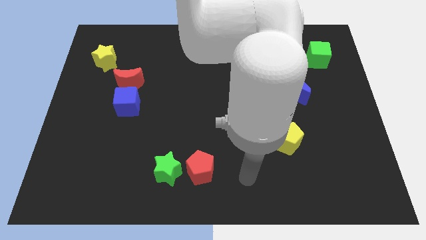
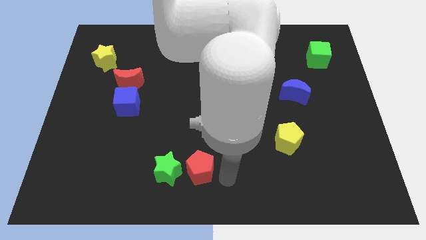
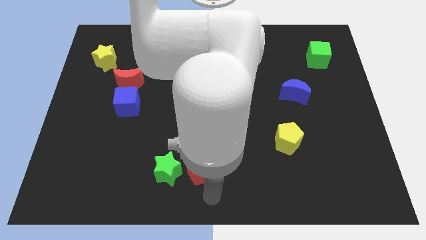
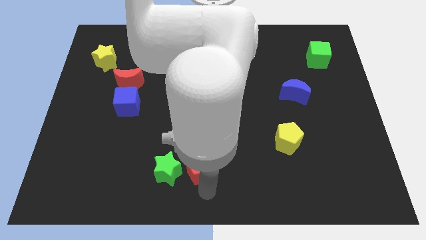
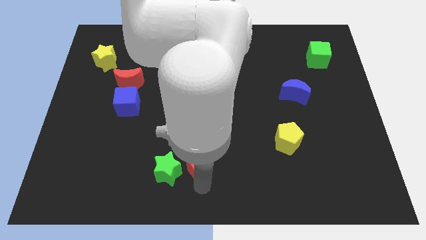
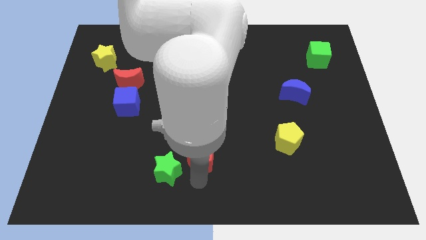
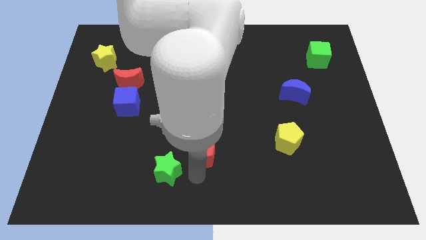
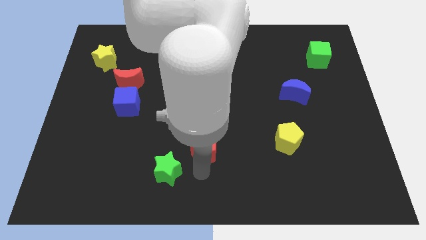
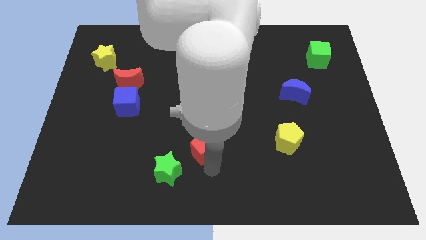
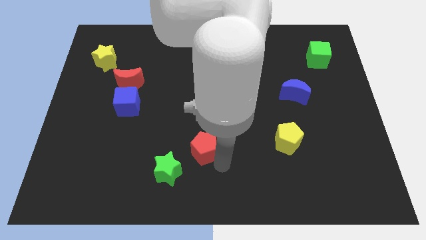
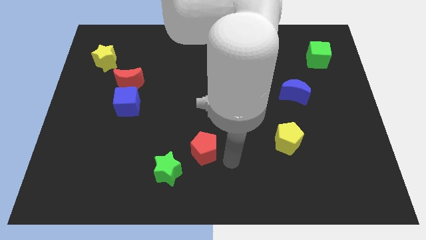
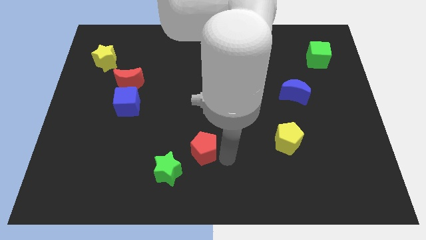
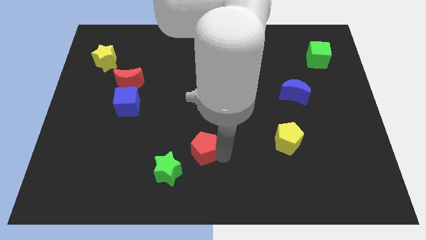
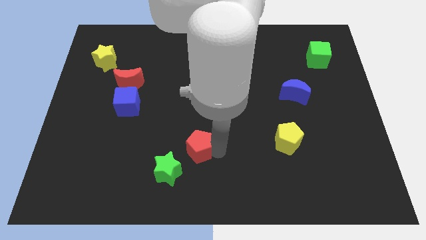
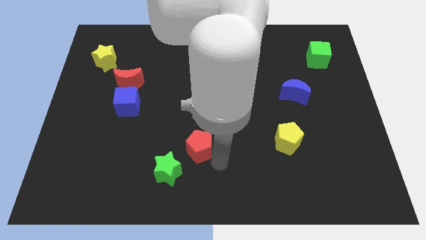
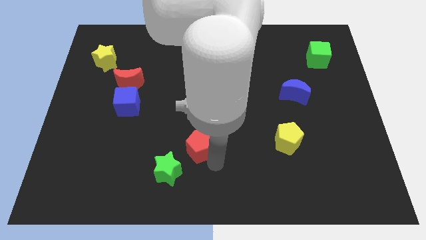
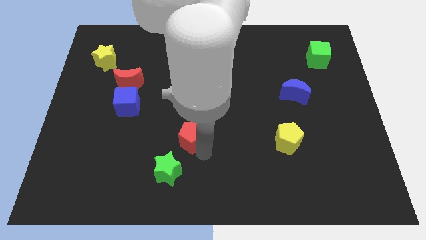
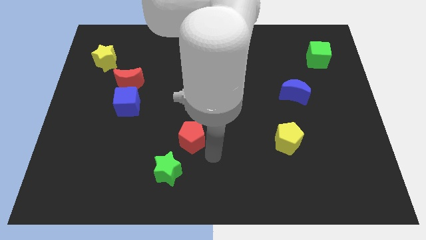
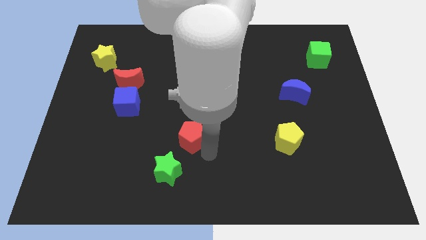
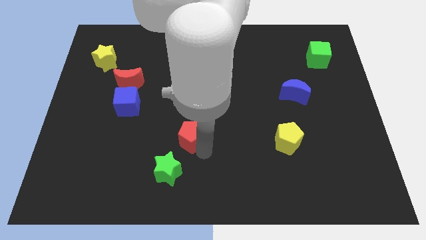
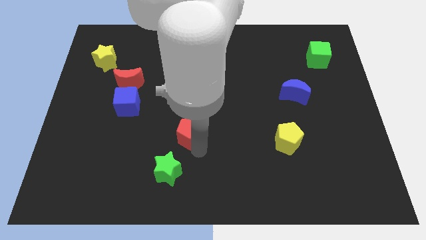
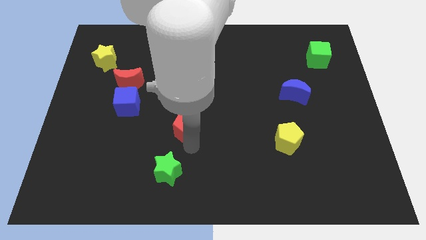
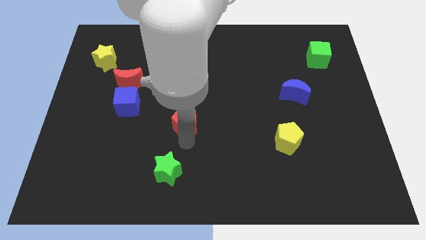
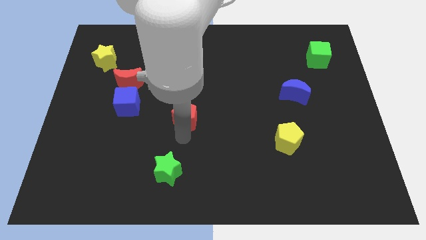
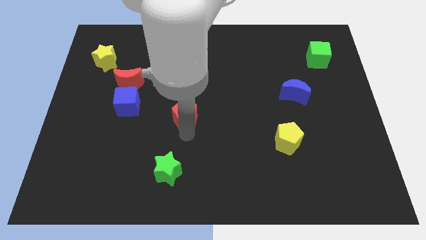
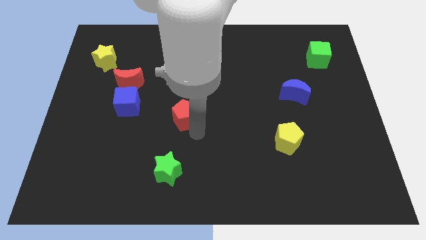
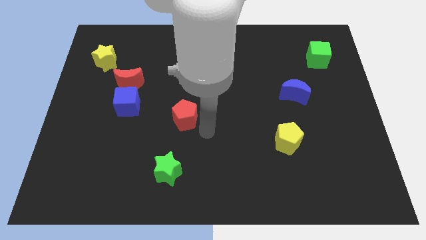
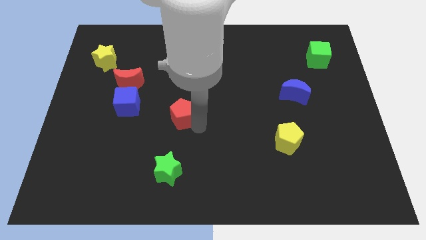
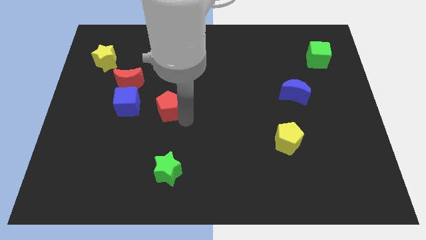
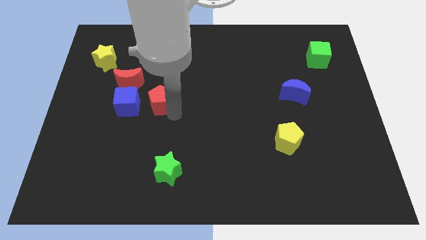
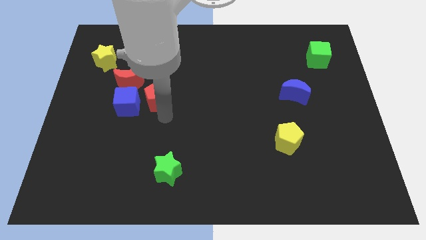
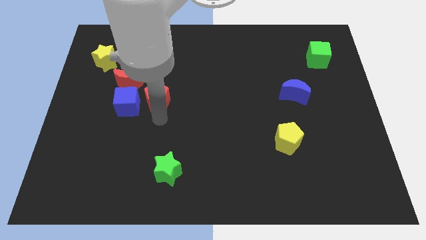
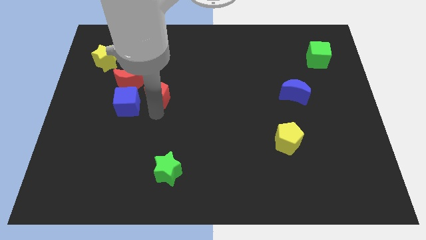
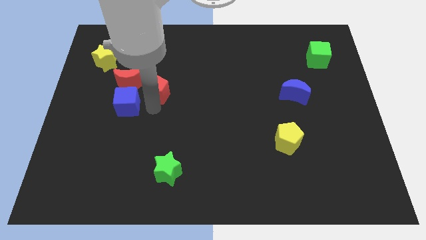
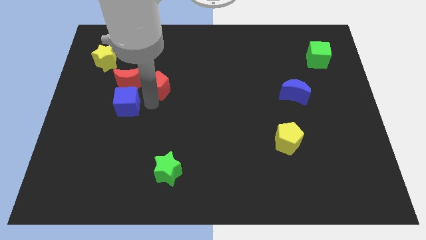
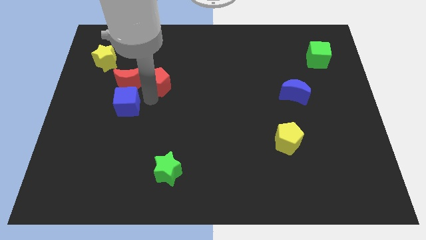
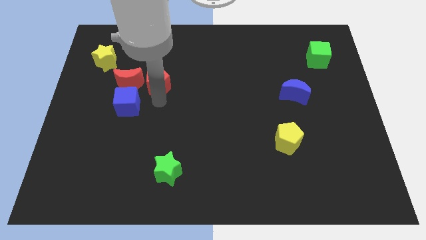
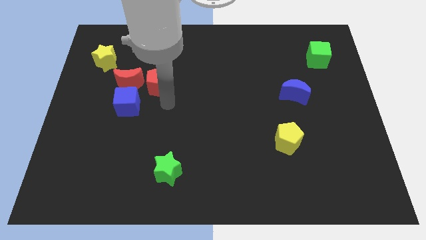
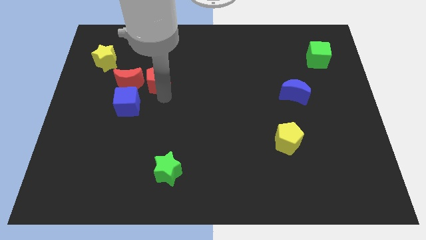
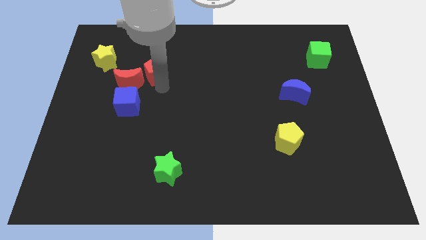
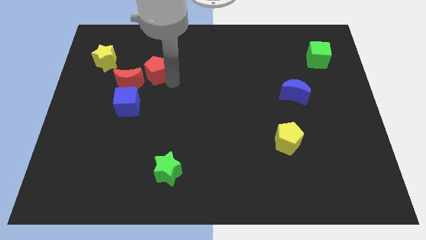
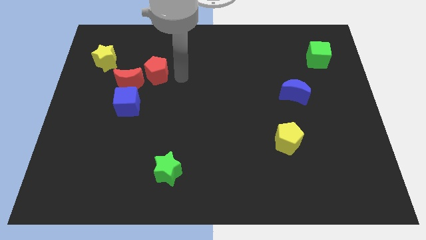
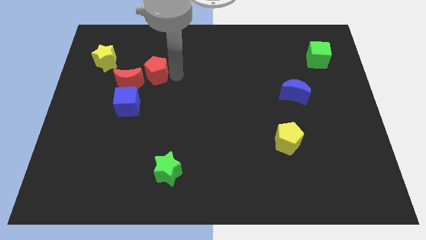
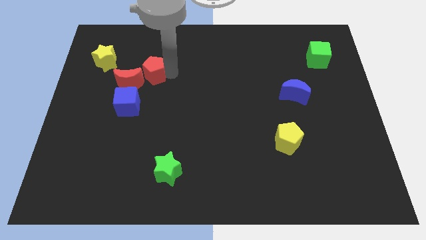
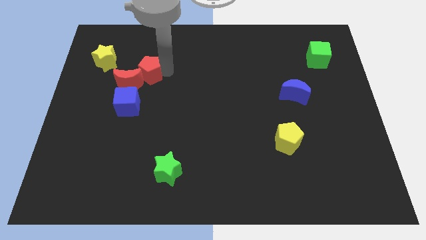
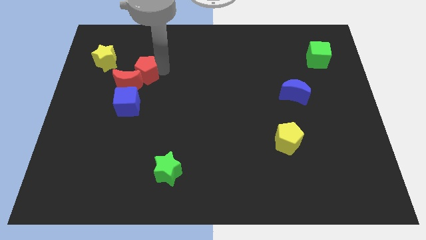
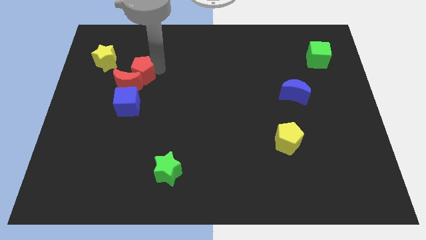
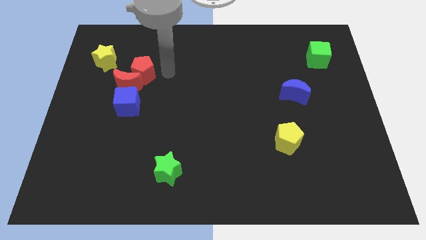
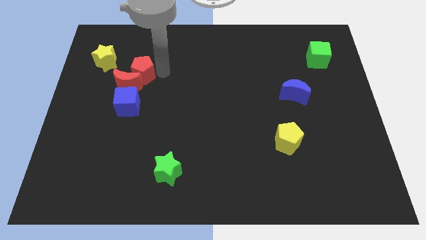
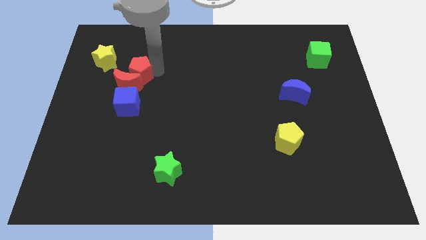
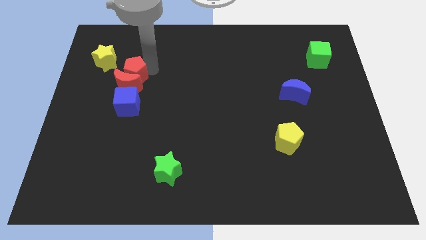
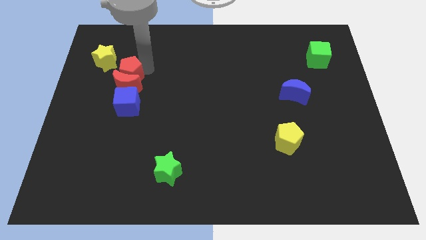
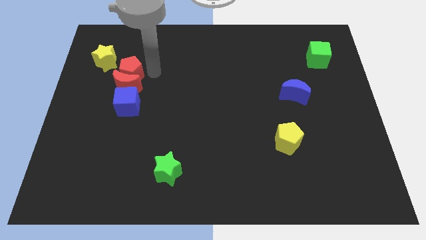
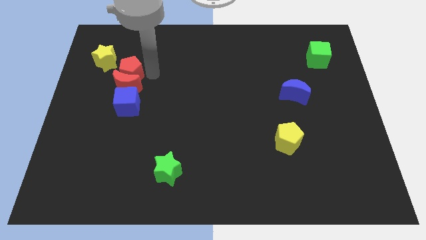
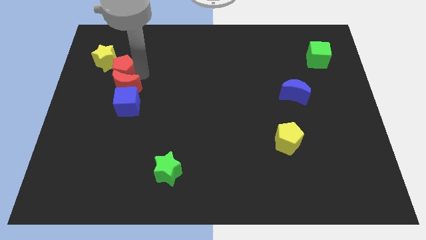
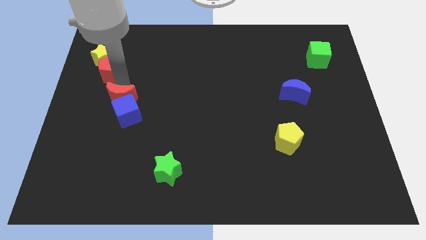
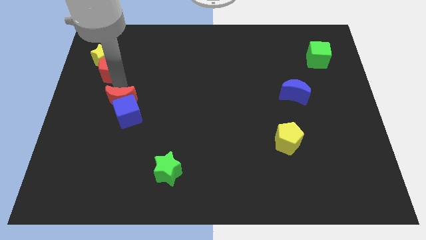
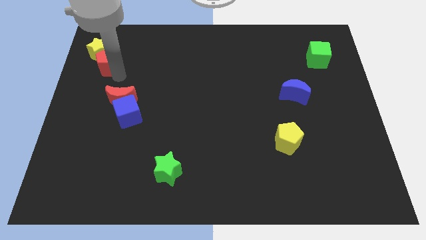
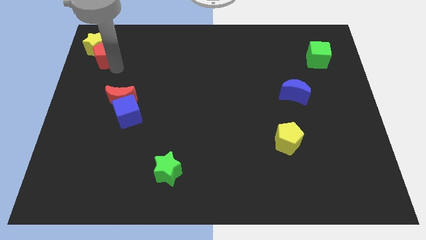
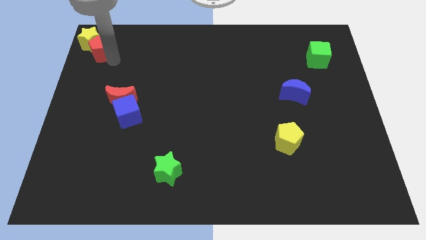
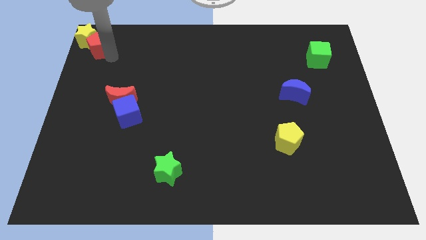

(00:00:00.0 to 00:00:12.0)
push the red pentagon to the upper left corner

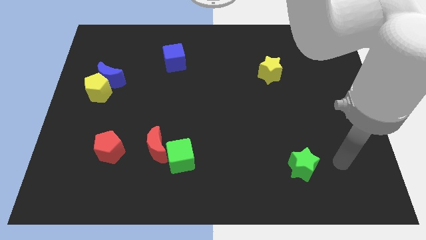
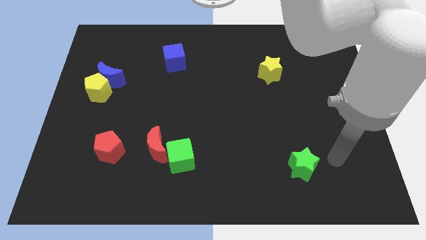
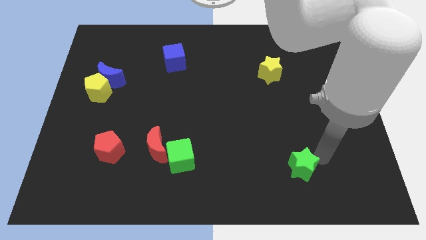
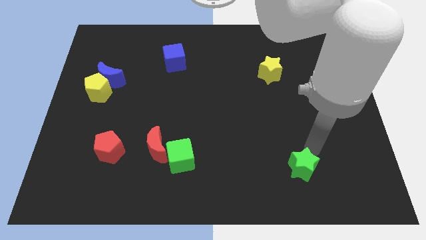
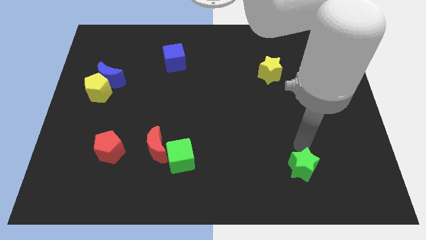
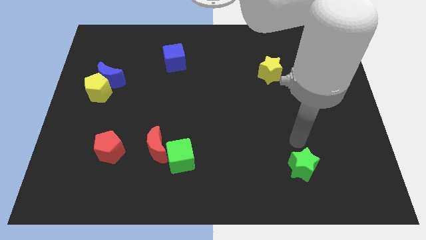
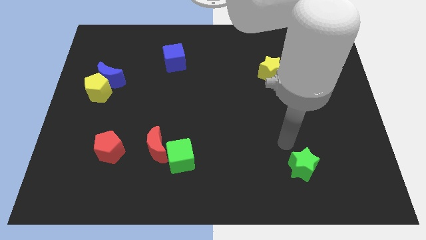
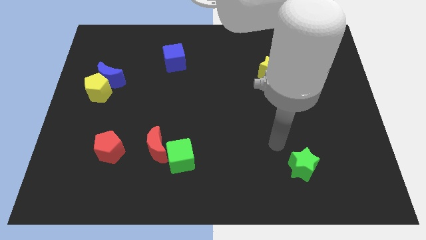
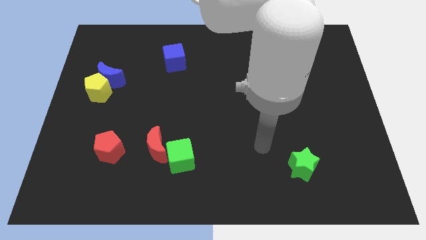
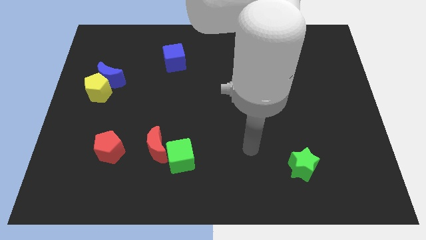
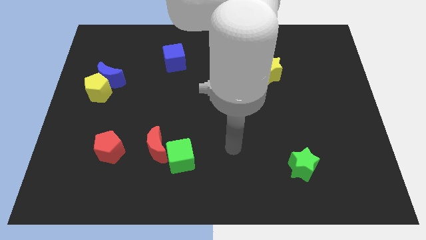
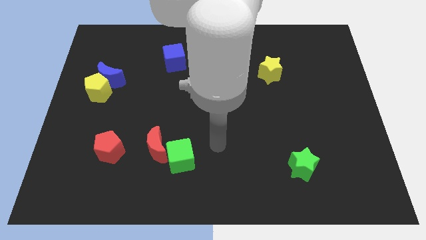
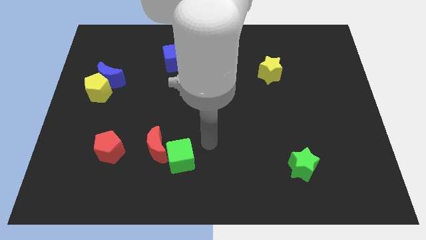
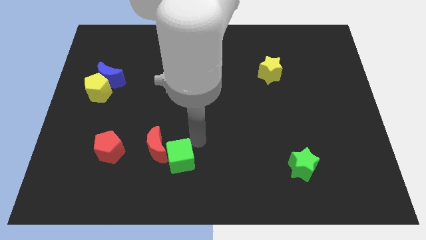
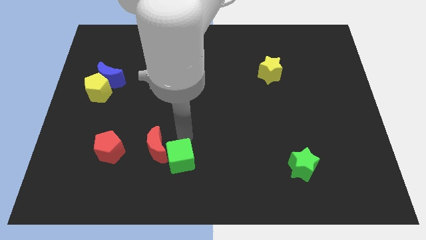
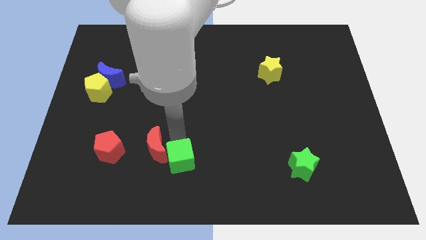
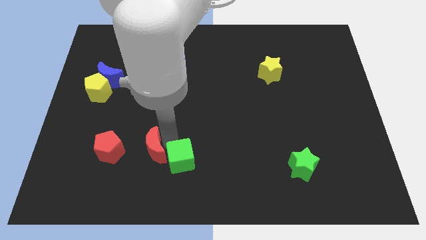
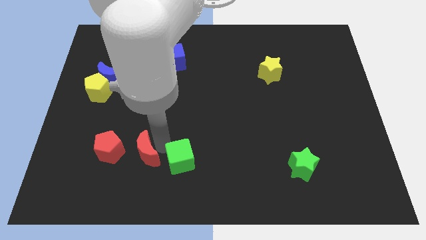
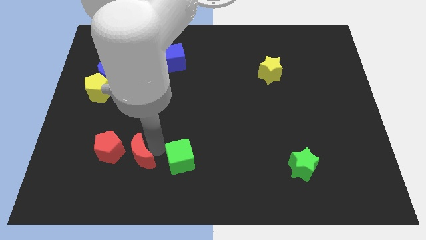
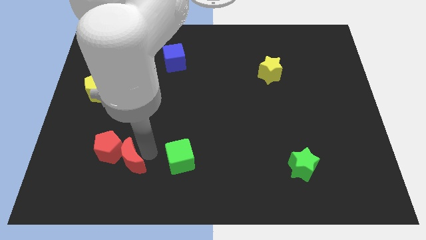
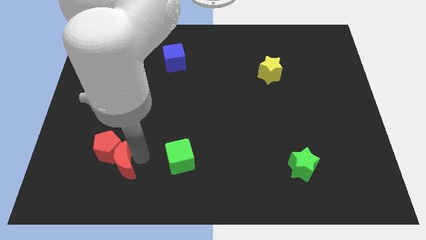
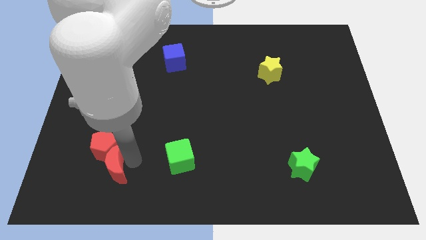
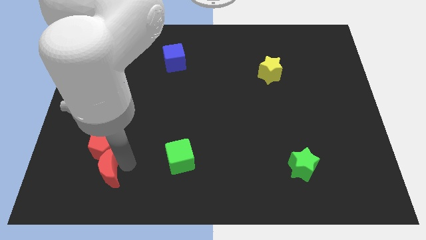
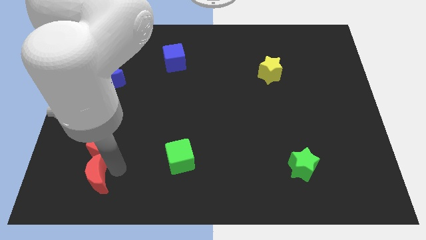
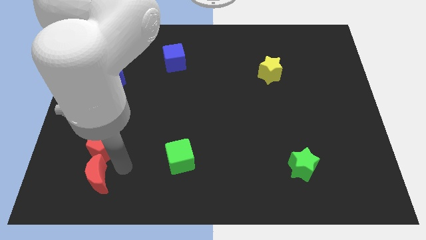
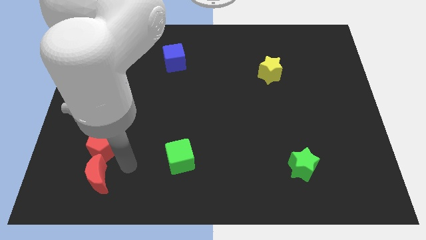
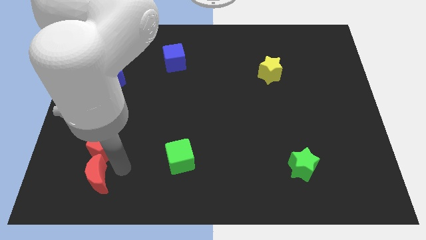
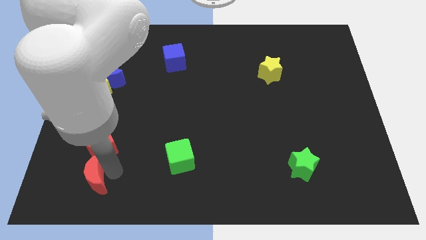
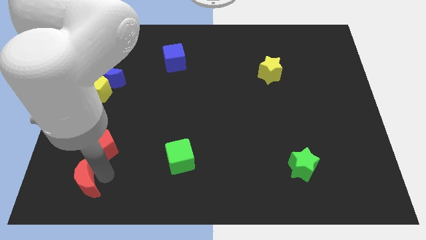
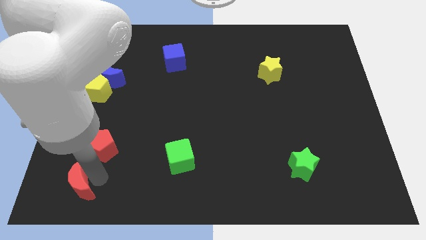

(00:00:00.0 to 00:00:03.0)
slide the red moon to the bottom left corner
